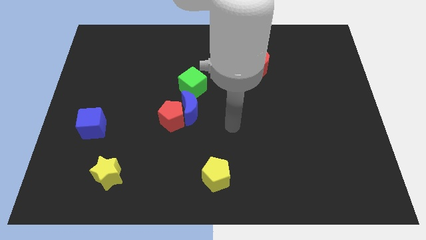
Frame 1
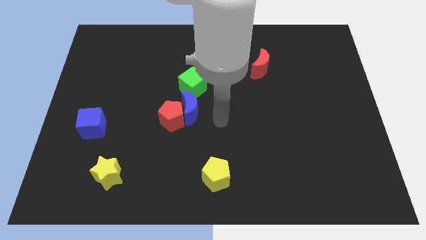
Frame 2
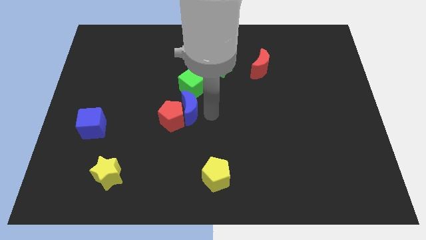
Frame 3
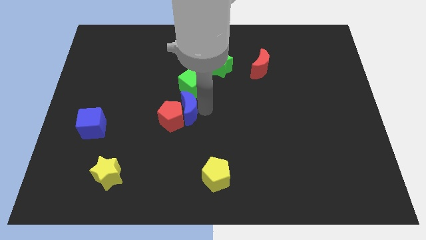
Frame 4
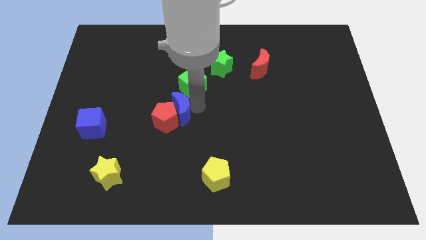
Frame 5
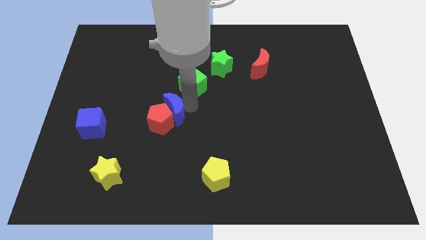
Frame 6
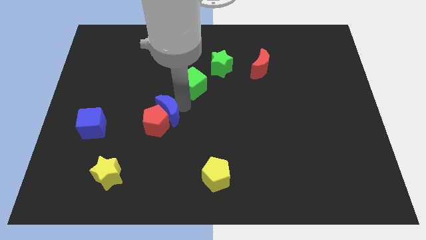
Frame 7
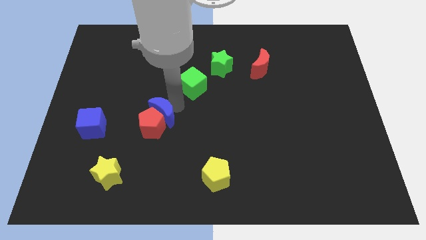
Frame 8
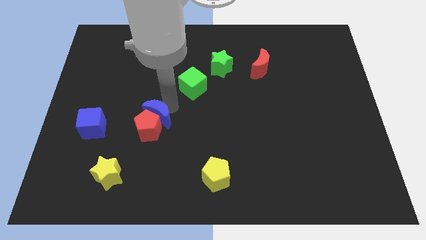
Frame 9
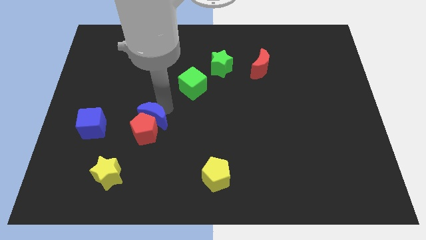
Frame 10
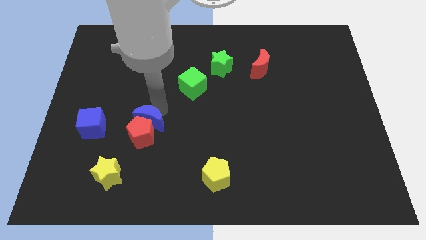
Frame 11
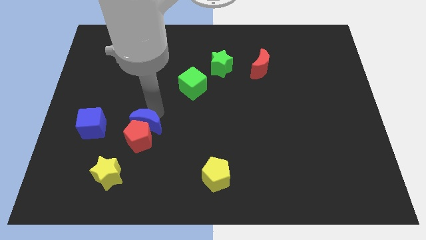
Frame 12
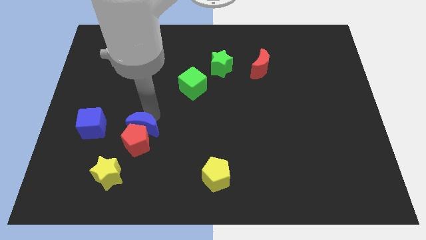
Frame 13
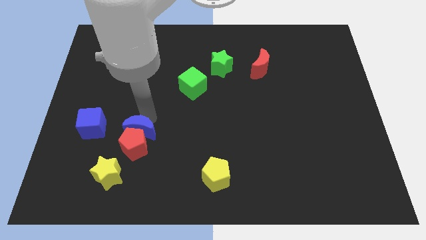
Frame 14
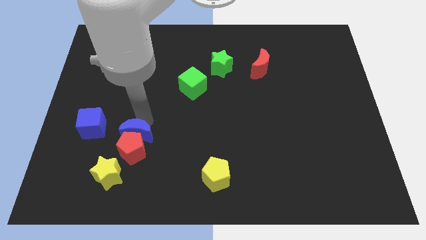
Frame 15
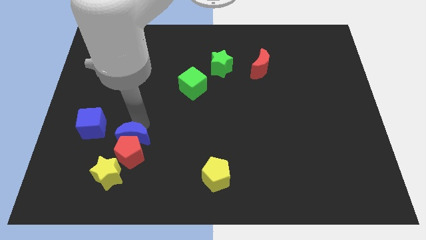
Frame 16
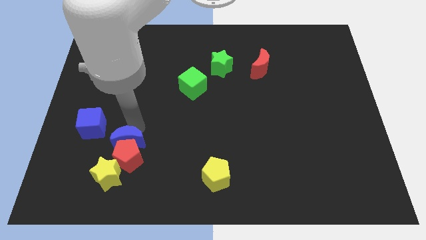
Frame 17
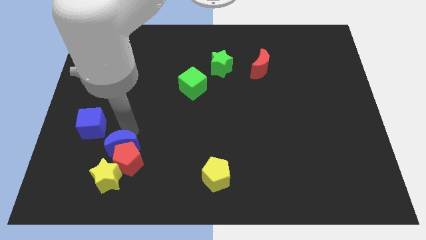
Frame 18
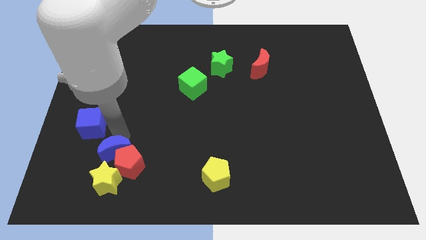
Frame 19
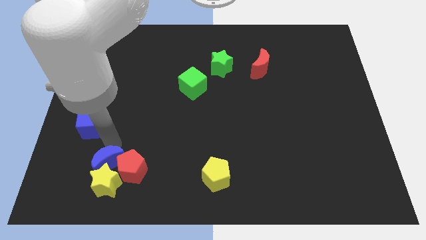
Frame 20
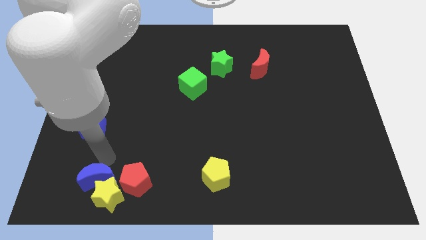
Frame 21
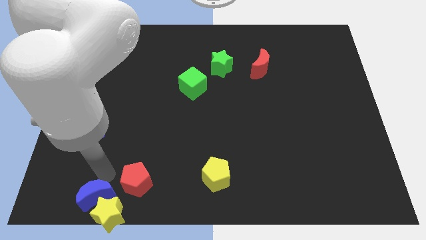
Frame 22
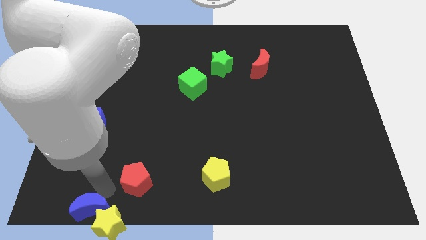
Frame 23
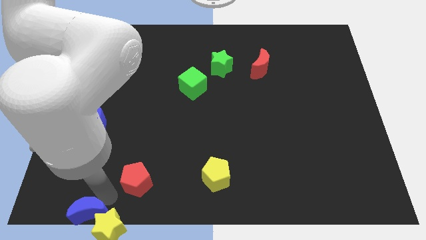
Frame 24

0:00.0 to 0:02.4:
move the red pentagon away from the blue moon

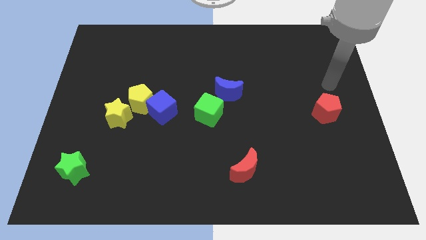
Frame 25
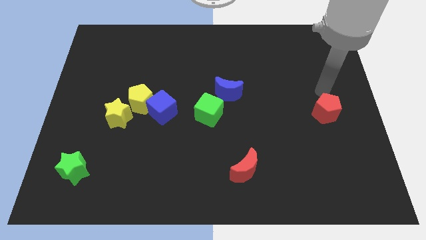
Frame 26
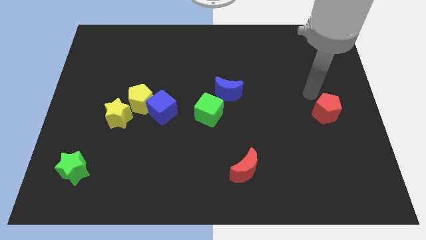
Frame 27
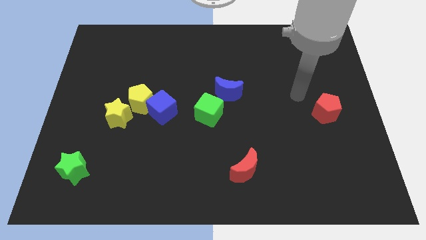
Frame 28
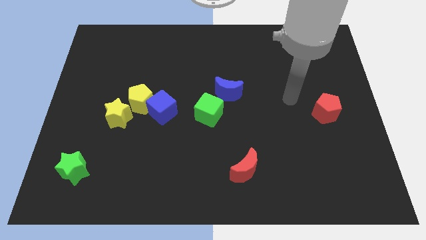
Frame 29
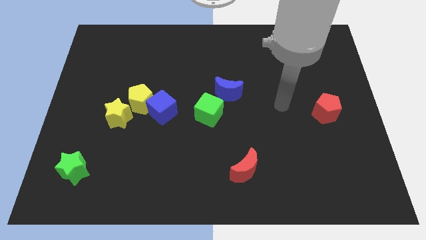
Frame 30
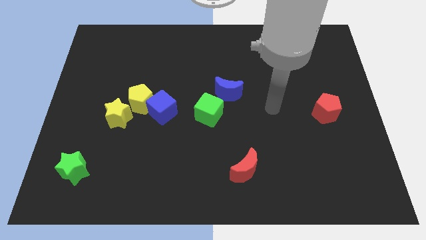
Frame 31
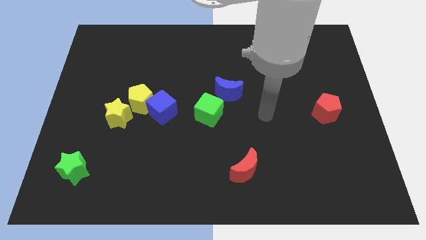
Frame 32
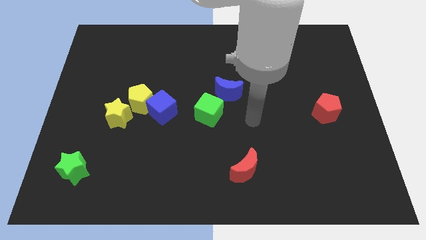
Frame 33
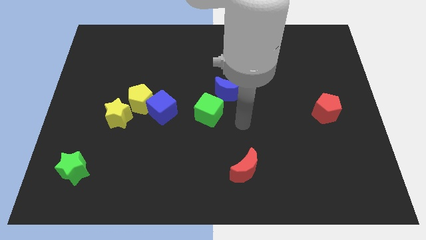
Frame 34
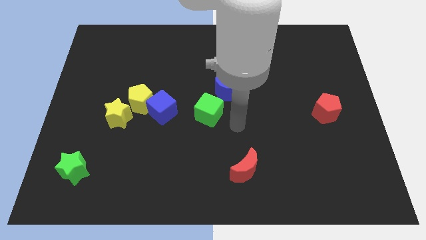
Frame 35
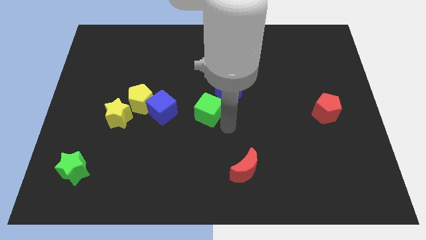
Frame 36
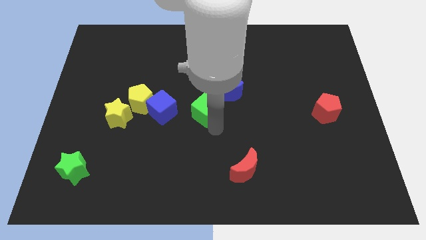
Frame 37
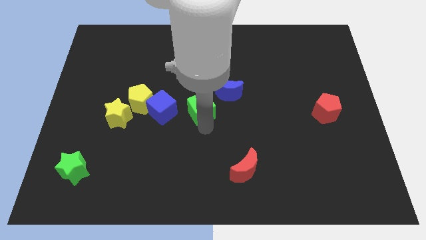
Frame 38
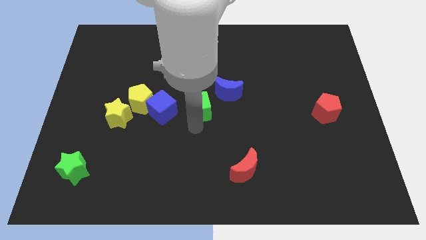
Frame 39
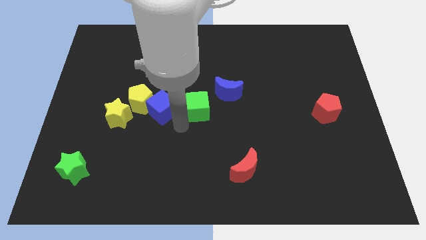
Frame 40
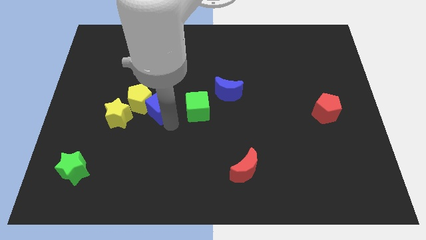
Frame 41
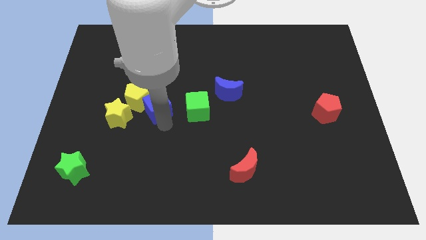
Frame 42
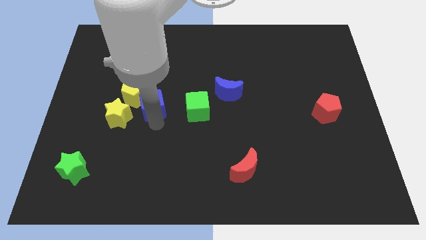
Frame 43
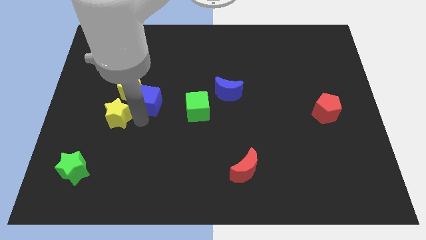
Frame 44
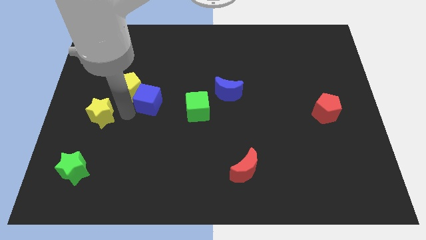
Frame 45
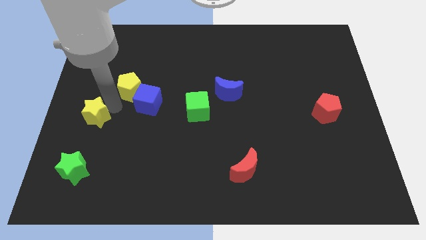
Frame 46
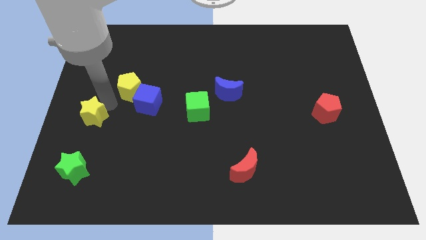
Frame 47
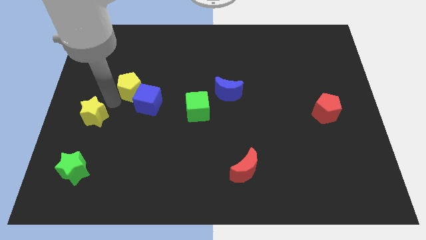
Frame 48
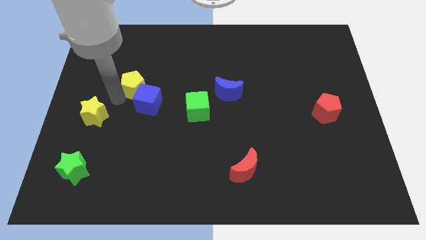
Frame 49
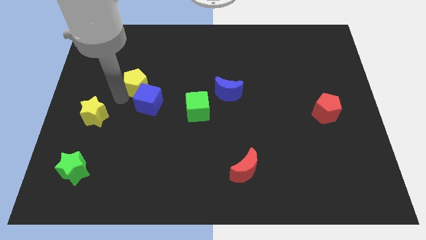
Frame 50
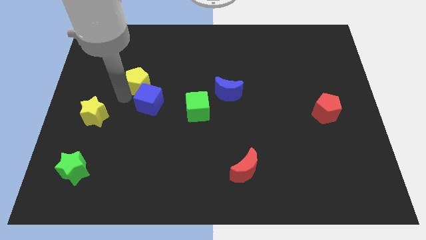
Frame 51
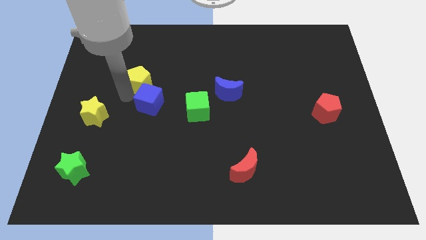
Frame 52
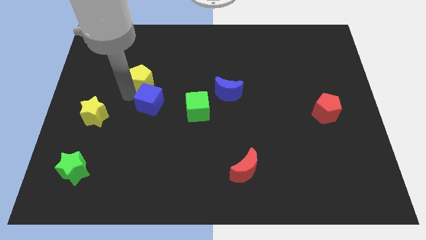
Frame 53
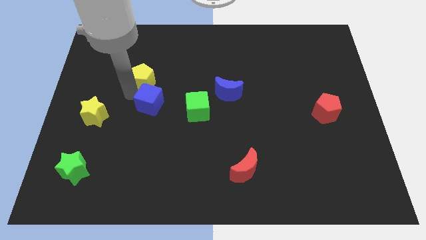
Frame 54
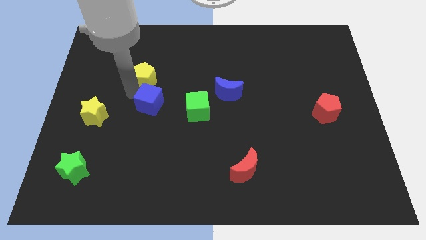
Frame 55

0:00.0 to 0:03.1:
pull the yellow pentagon apart from the blue cube and yellow star

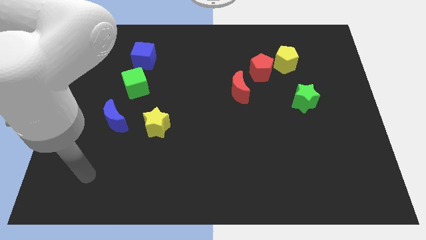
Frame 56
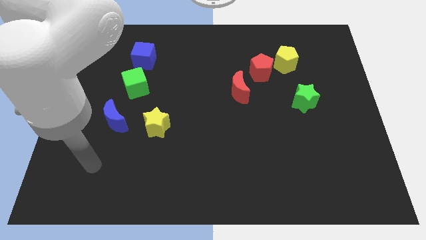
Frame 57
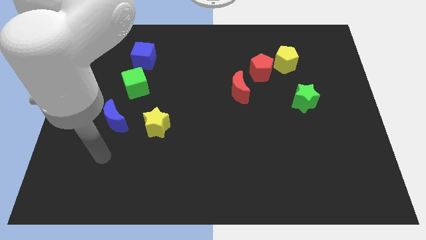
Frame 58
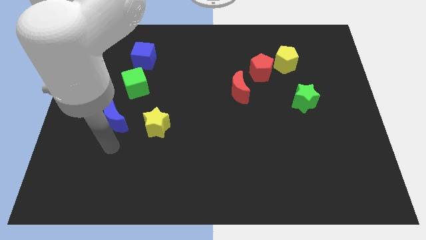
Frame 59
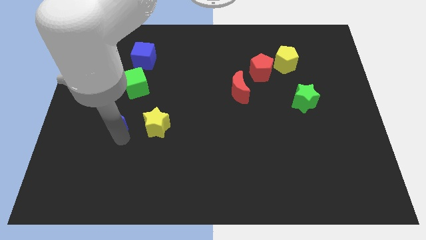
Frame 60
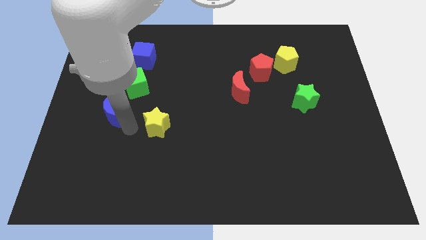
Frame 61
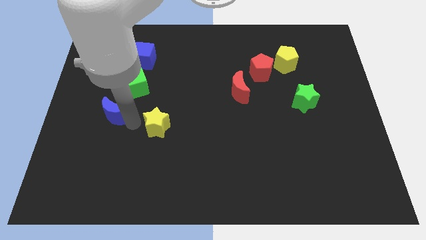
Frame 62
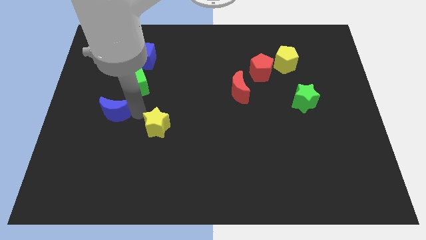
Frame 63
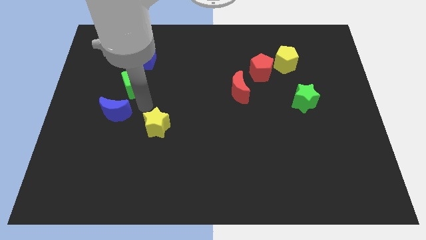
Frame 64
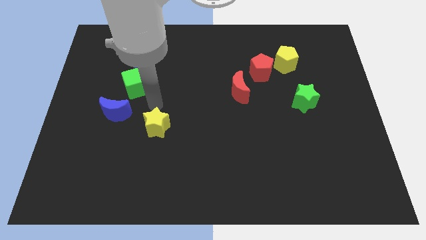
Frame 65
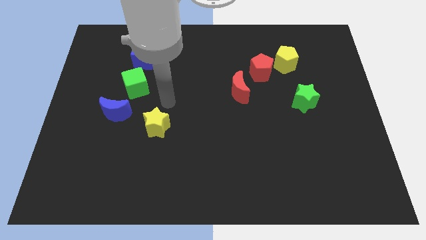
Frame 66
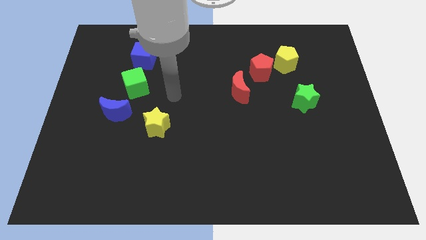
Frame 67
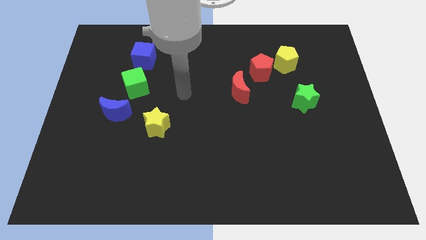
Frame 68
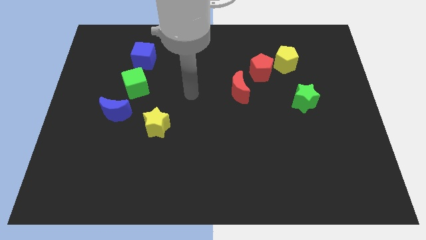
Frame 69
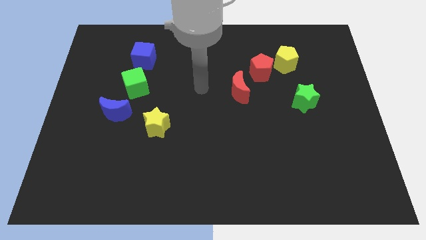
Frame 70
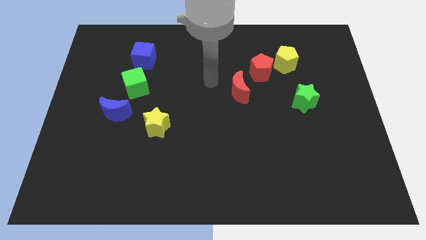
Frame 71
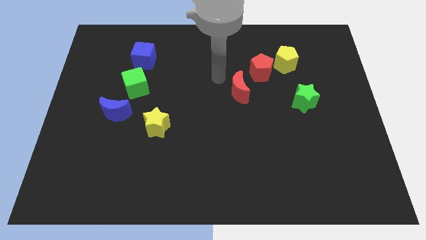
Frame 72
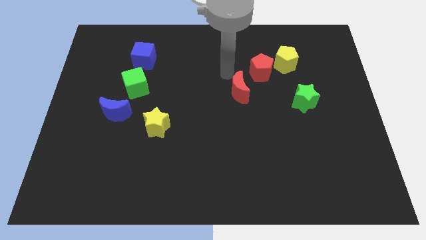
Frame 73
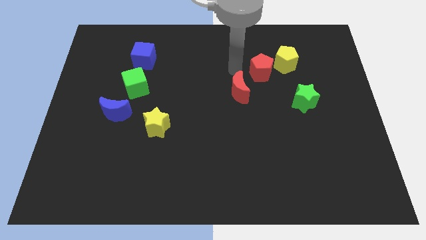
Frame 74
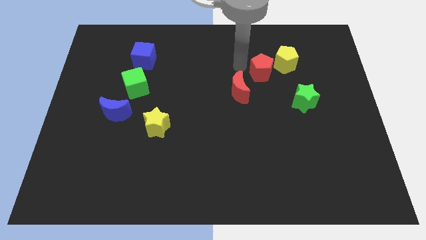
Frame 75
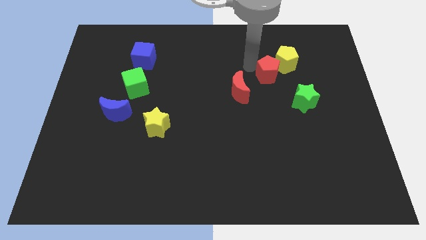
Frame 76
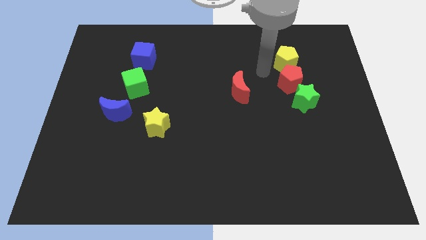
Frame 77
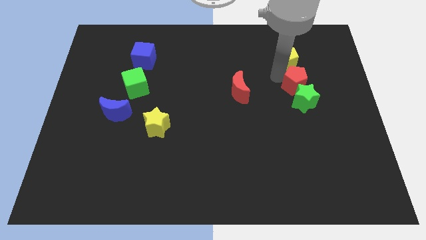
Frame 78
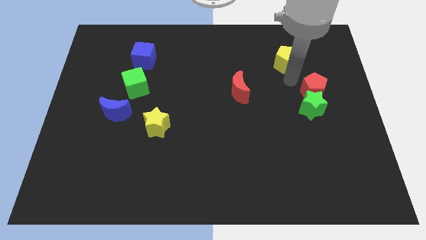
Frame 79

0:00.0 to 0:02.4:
pull the yellow pentagon apart from the red pentagon

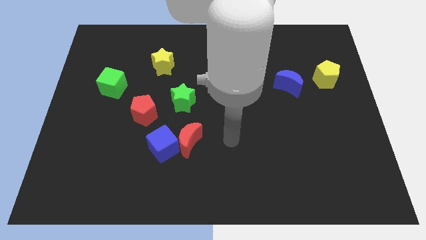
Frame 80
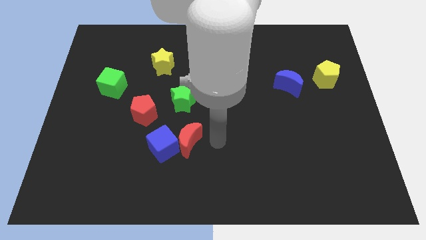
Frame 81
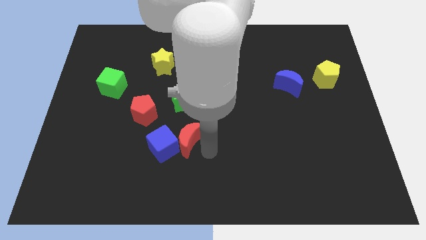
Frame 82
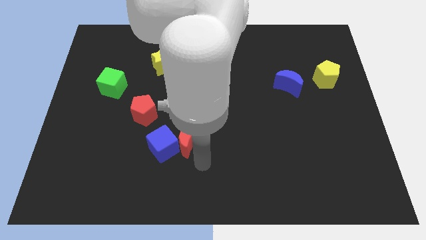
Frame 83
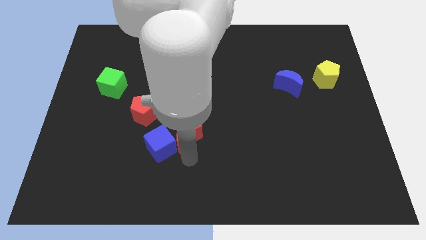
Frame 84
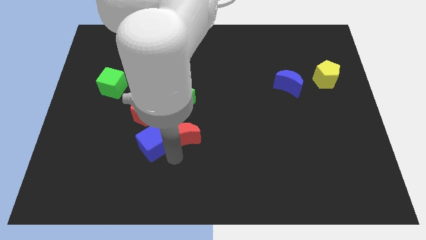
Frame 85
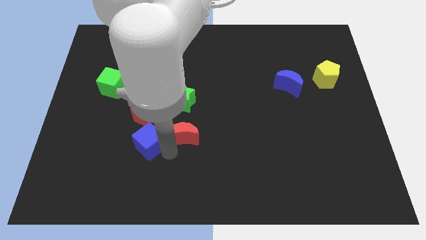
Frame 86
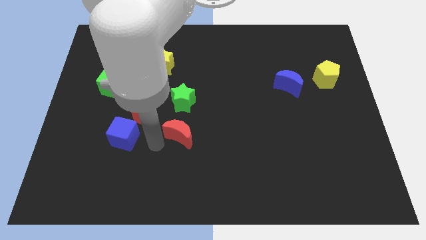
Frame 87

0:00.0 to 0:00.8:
separate the red moon from the blue cube

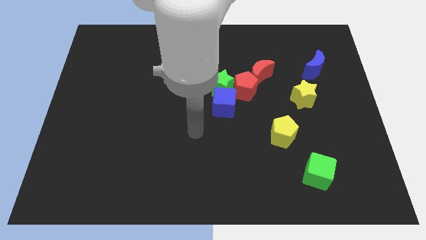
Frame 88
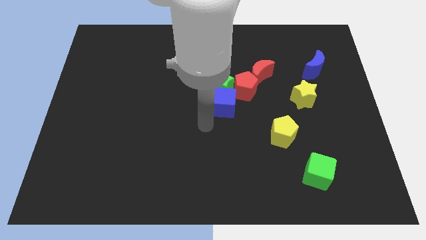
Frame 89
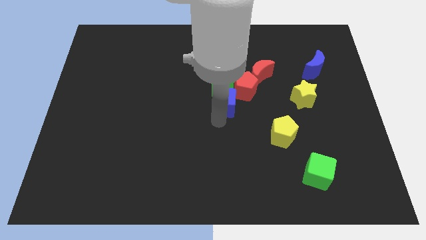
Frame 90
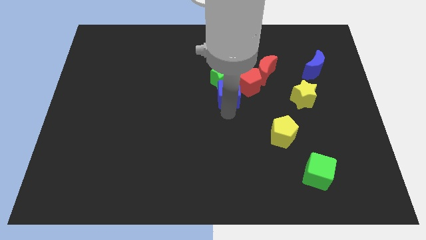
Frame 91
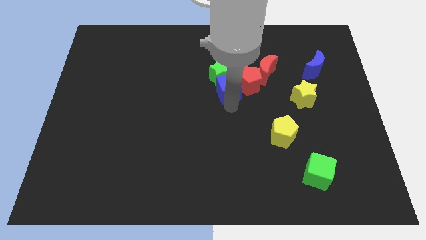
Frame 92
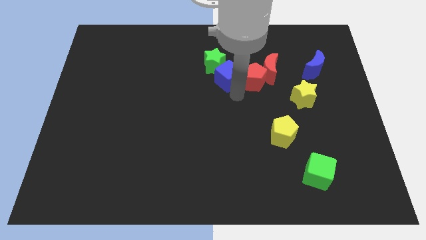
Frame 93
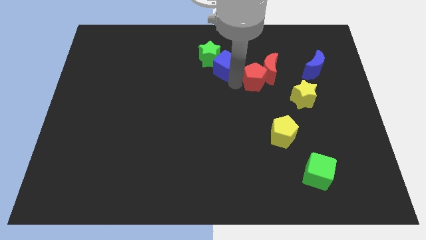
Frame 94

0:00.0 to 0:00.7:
move the green star away from the blue cube and red pentagon

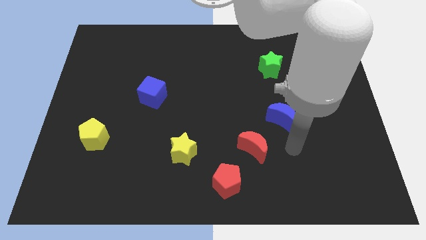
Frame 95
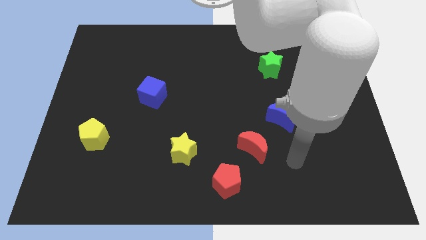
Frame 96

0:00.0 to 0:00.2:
move the red moon away from the red pentagon
